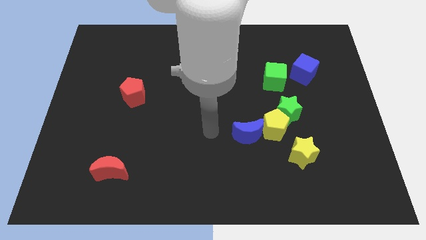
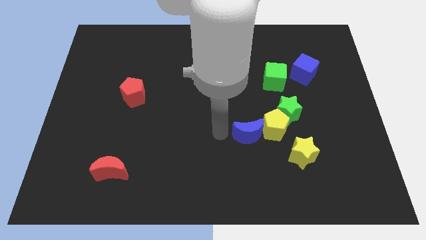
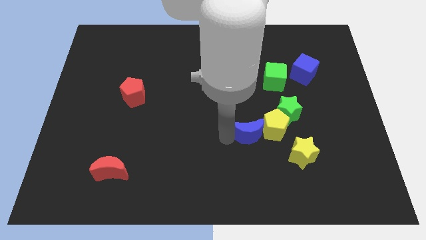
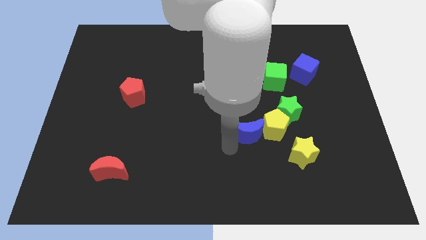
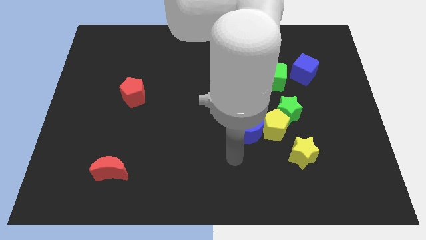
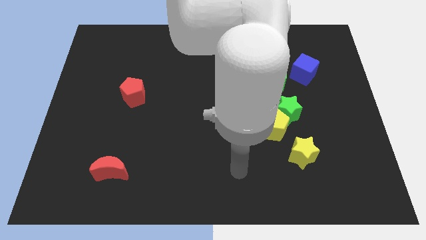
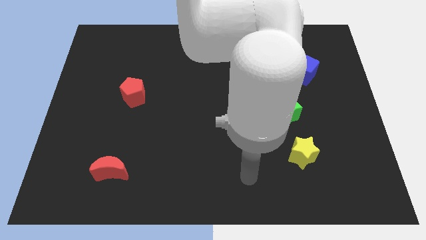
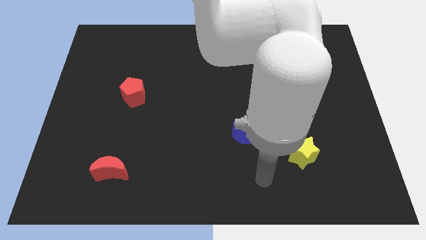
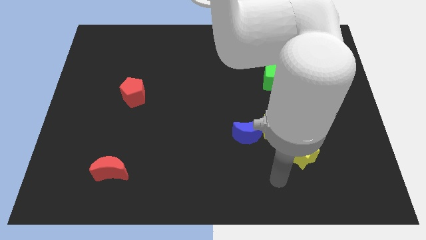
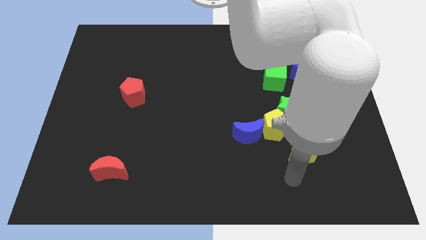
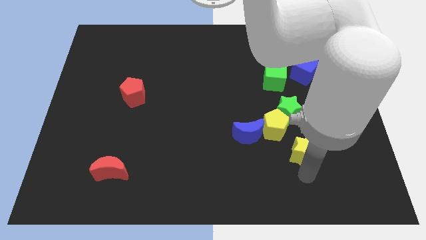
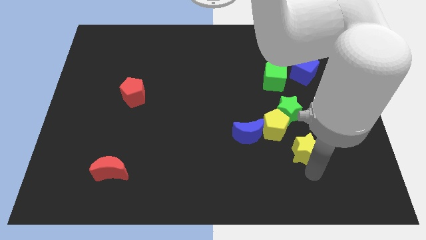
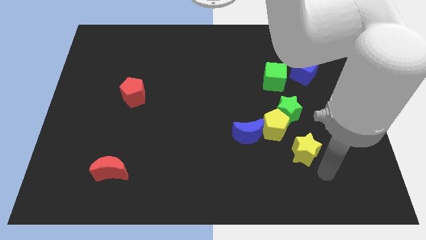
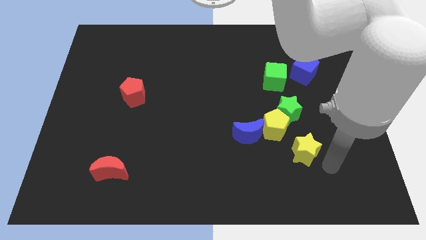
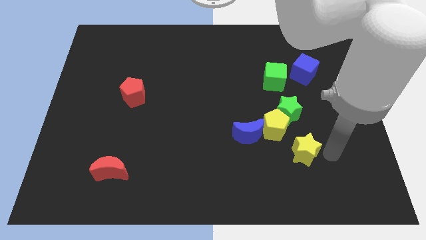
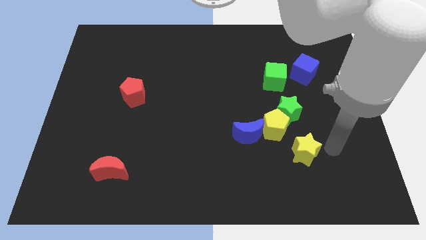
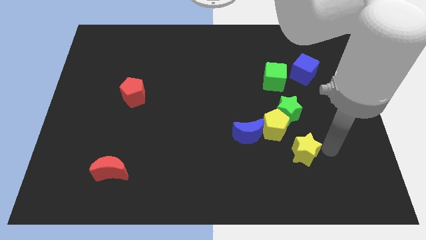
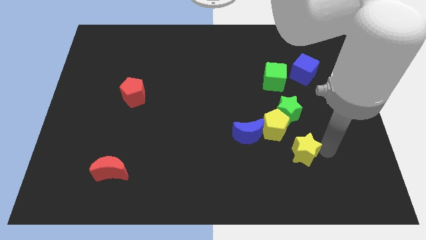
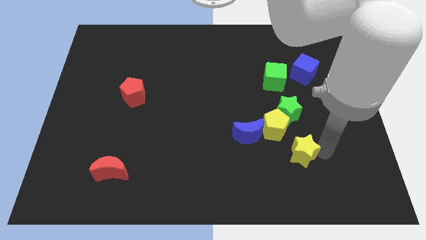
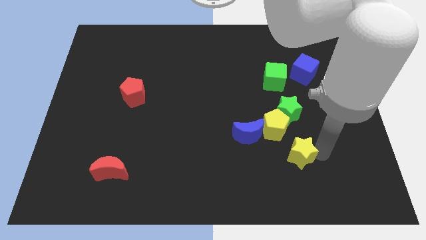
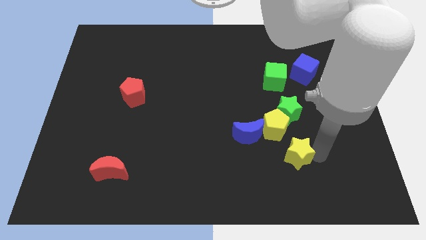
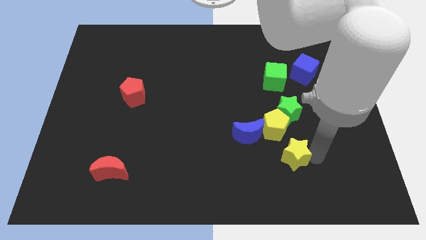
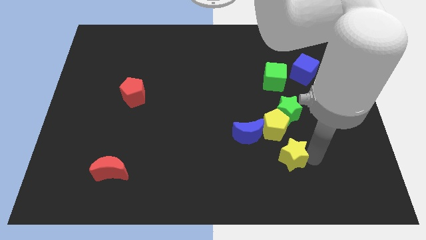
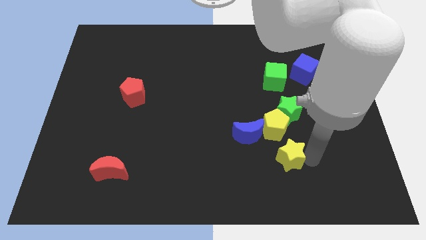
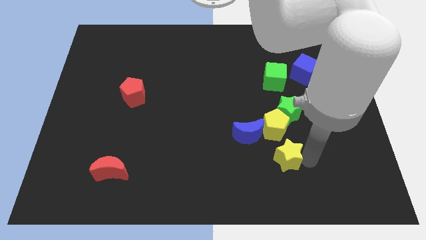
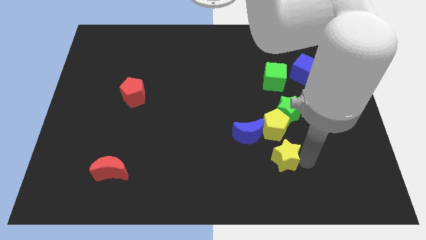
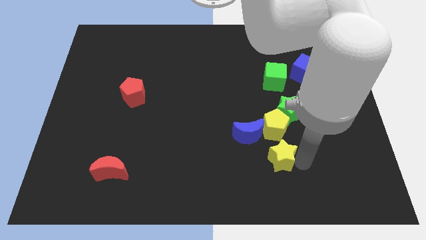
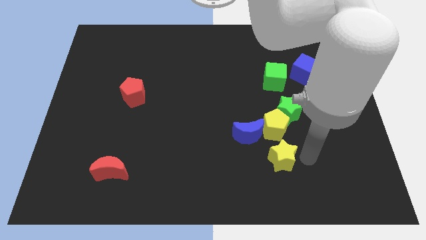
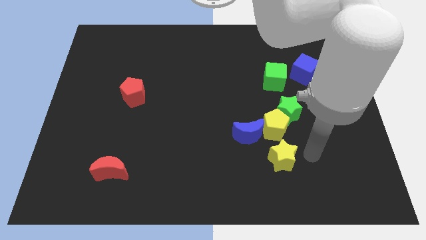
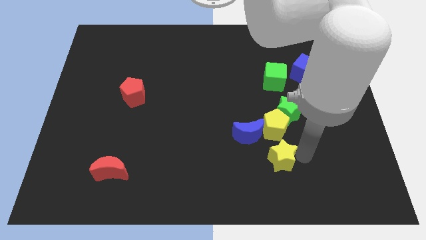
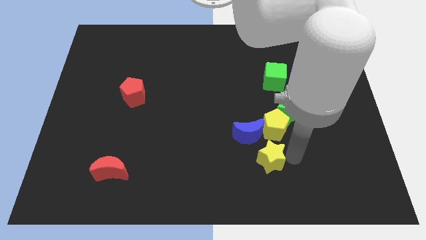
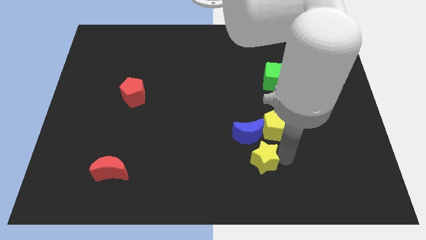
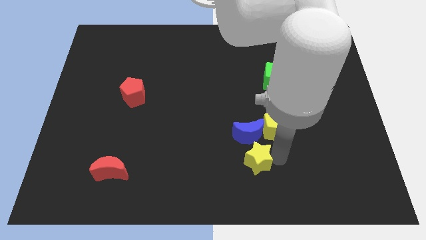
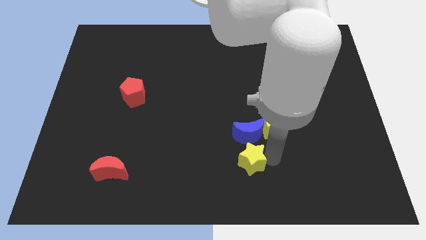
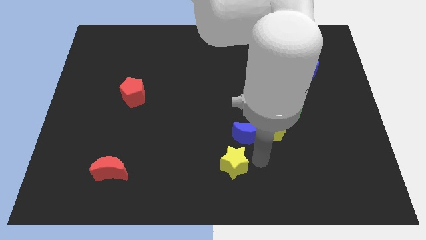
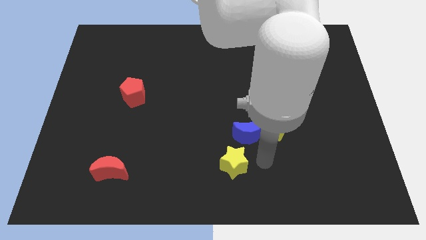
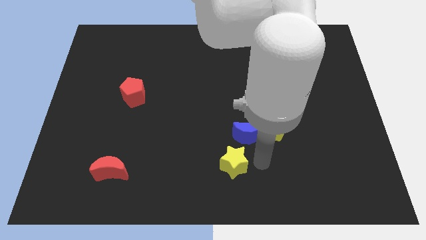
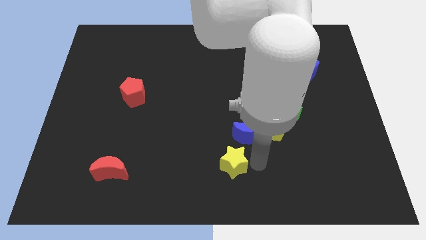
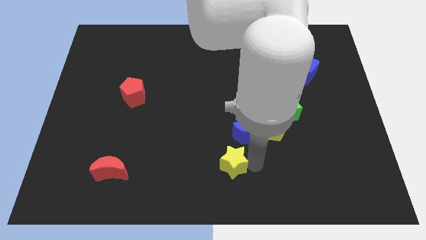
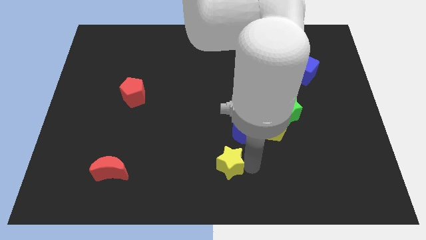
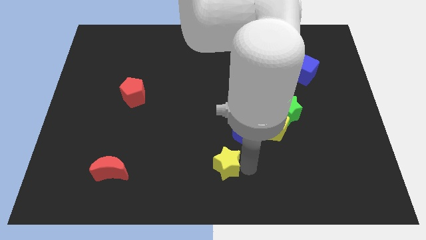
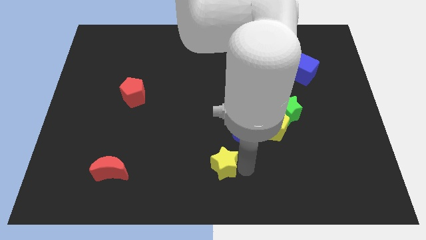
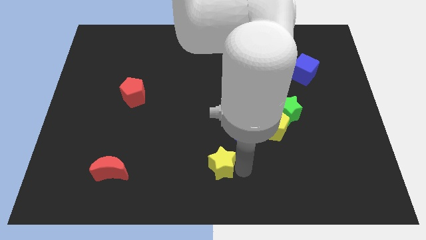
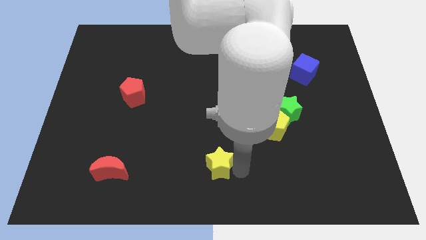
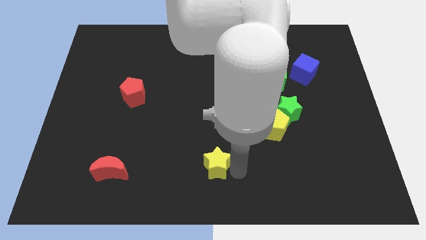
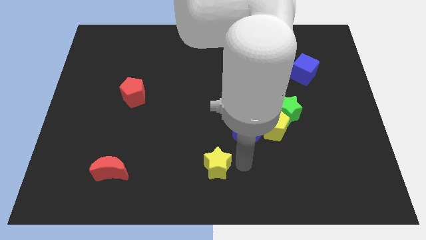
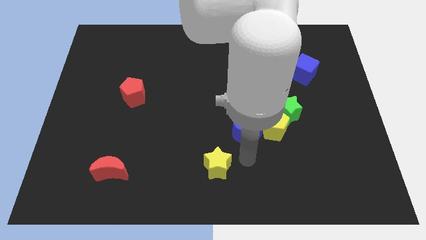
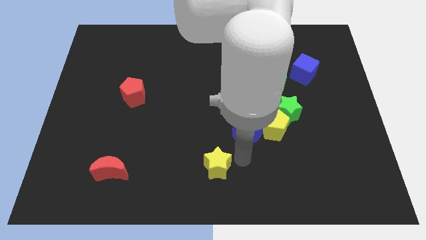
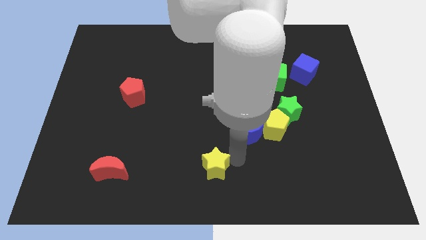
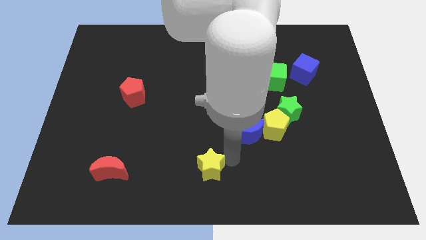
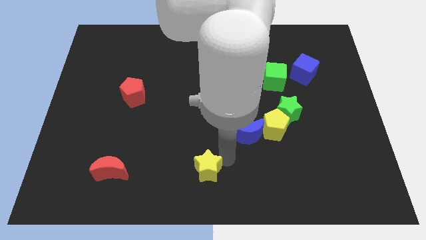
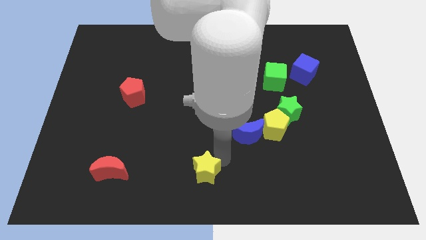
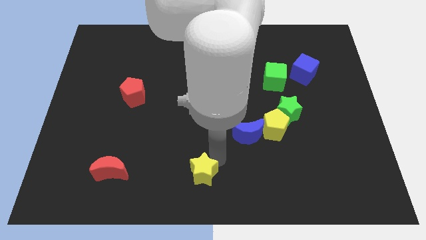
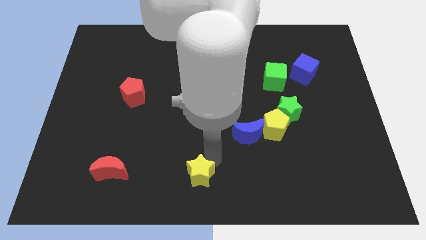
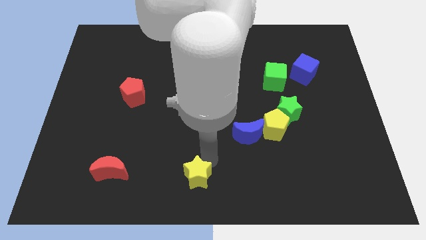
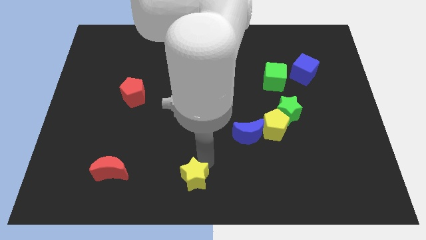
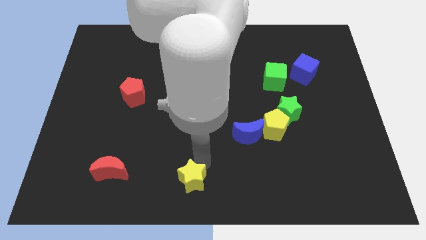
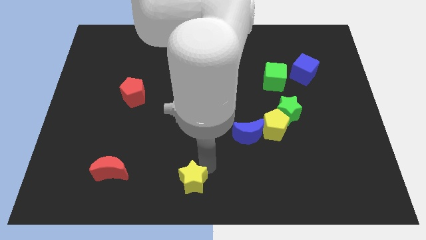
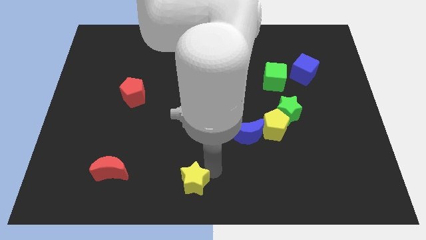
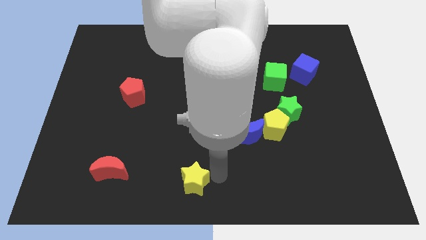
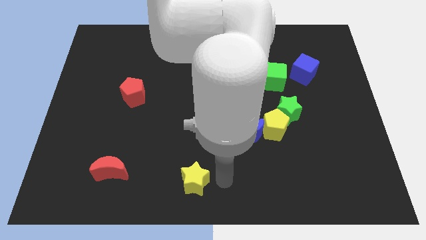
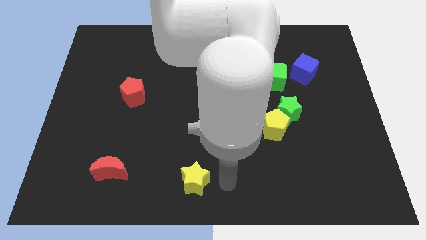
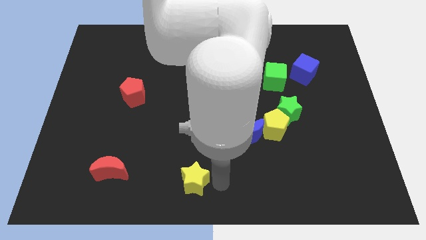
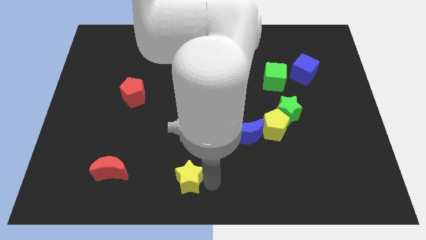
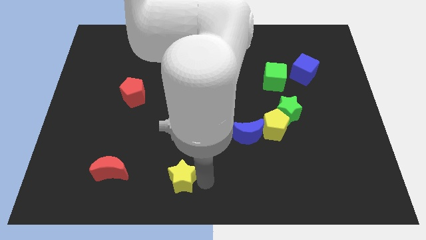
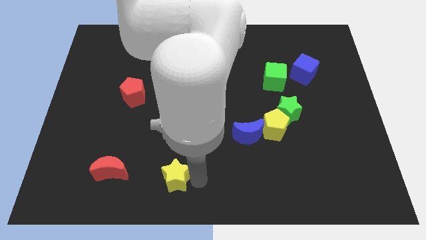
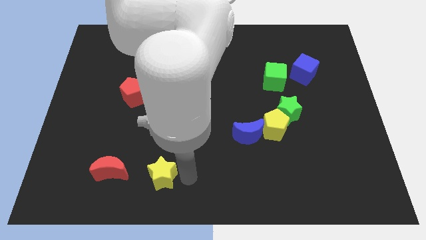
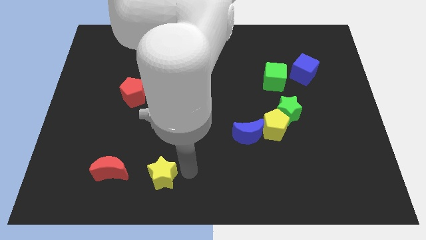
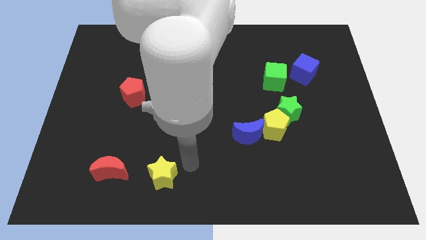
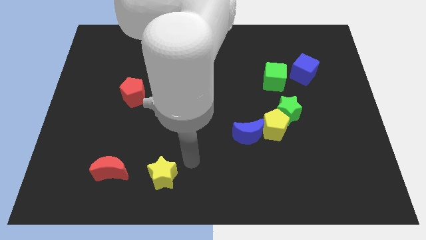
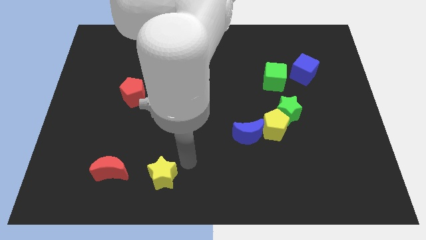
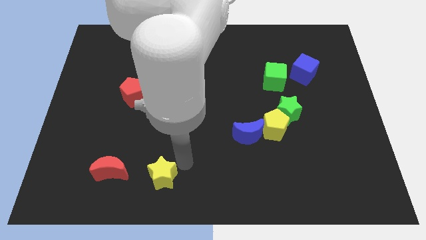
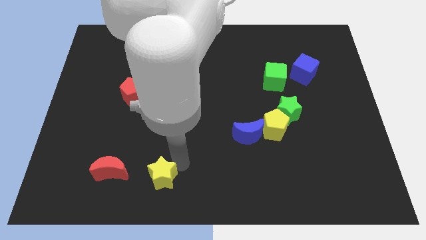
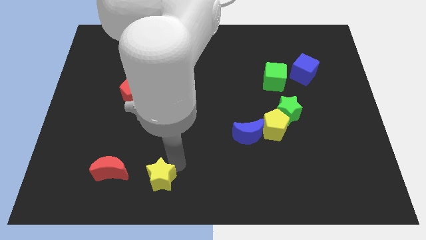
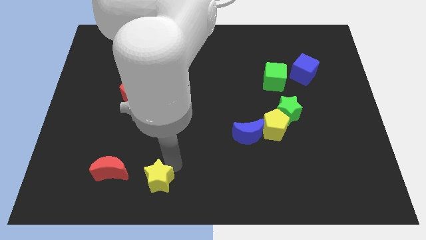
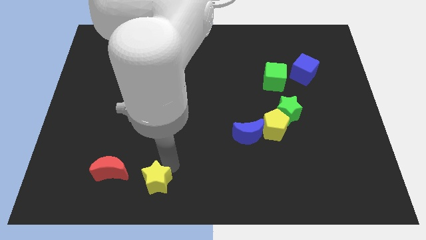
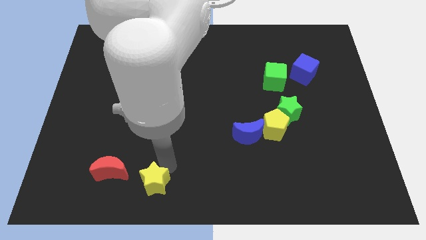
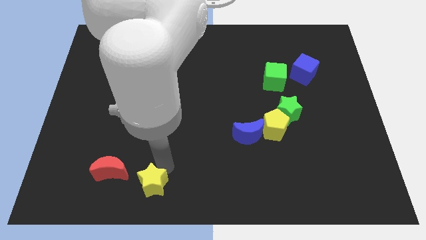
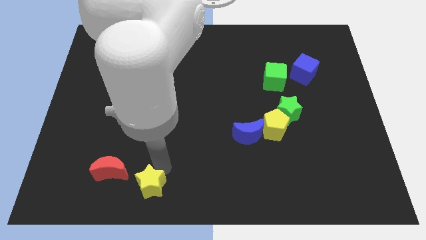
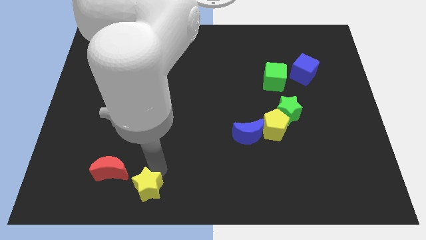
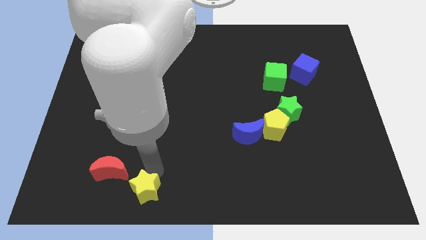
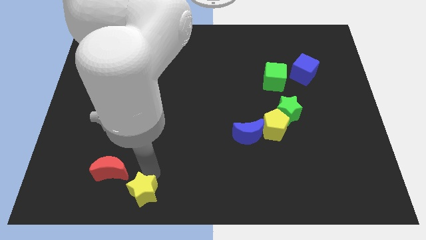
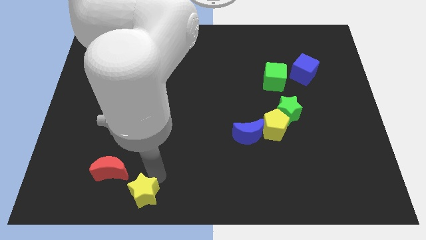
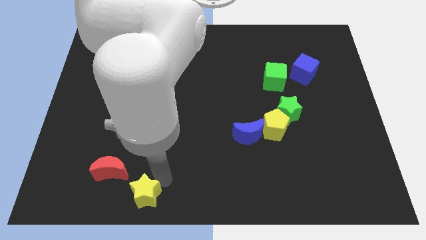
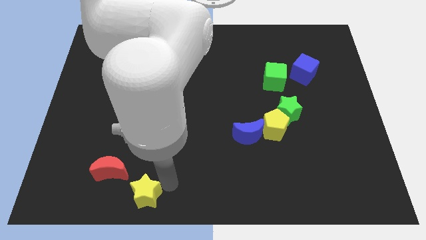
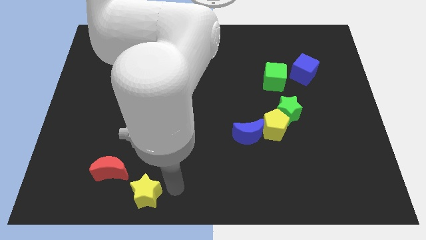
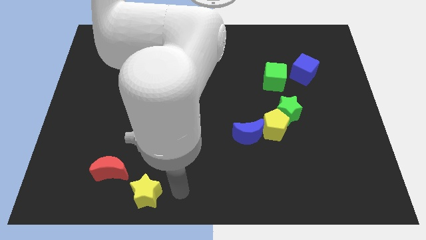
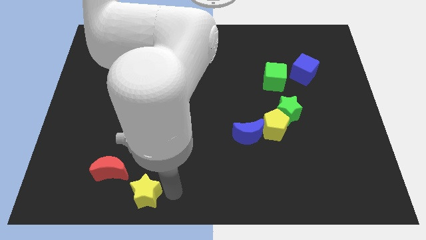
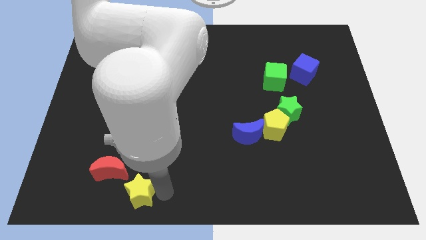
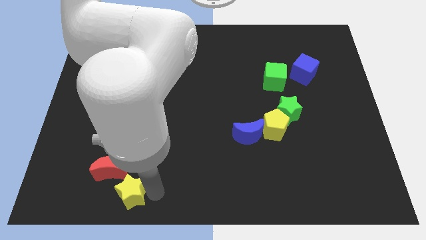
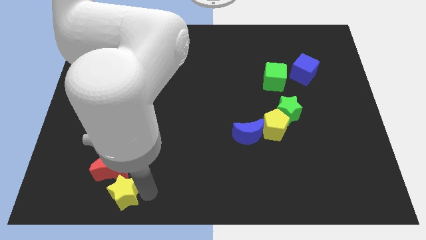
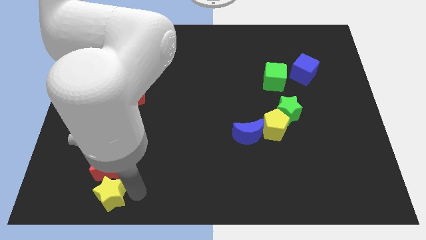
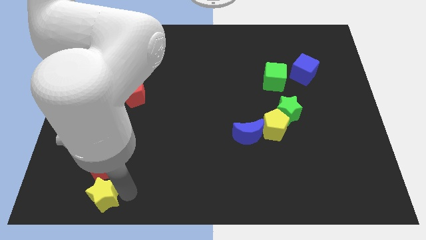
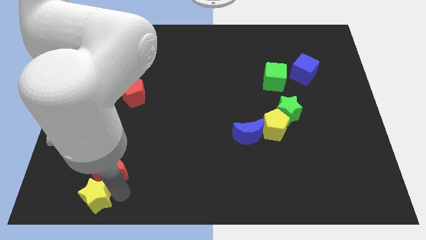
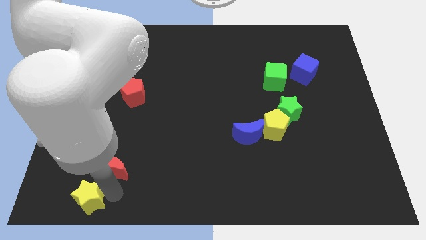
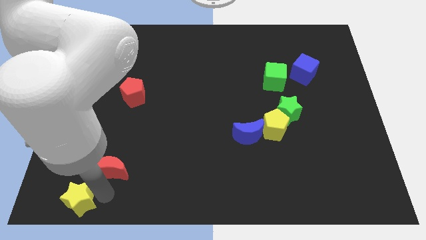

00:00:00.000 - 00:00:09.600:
move the yellow star to the bottom left corner
